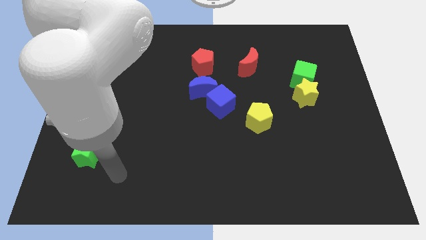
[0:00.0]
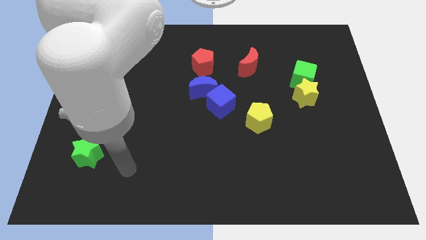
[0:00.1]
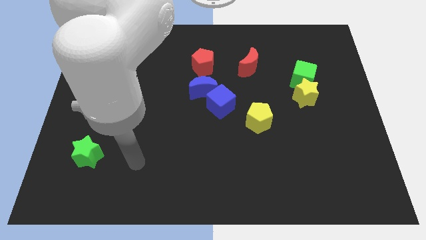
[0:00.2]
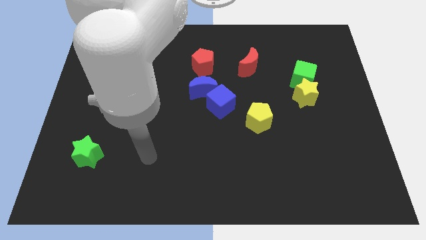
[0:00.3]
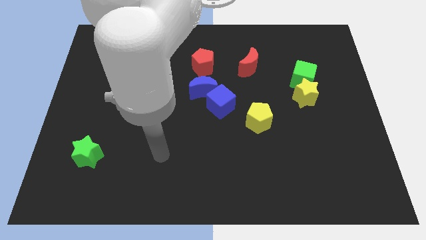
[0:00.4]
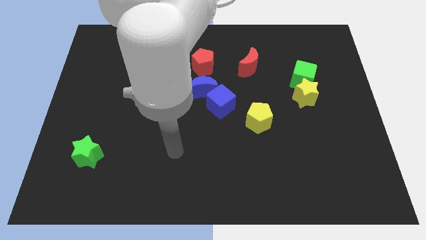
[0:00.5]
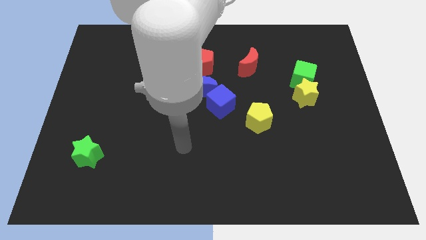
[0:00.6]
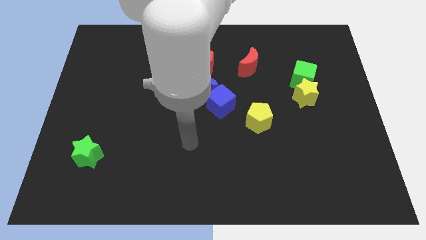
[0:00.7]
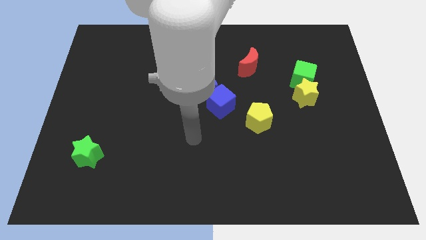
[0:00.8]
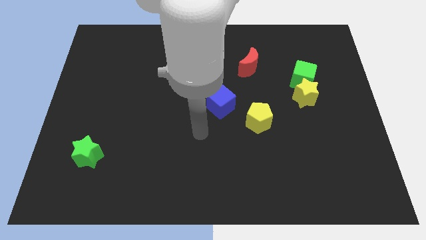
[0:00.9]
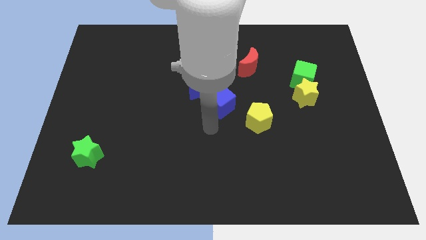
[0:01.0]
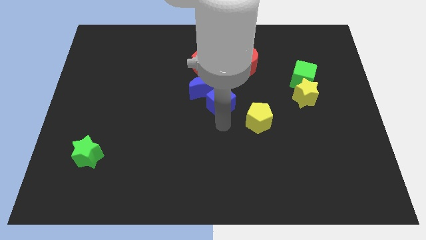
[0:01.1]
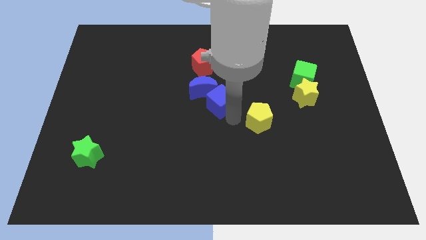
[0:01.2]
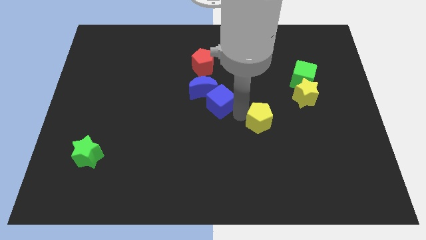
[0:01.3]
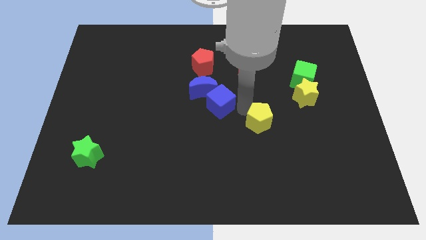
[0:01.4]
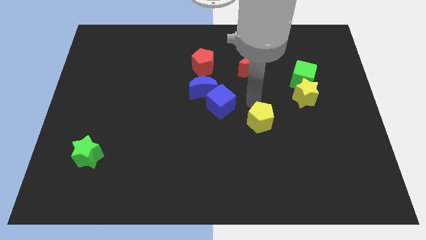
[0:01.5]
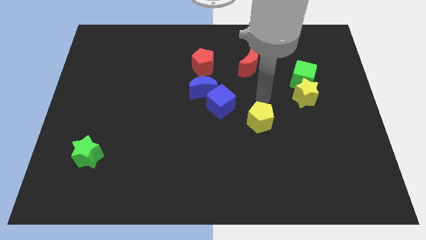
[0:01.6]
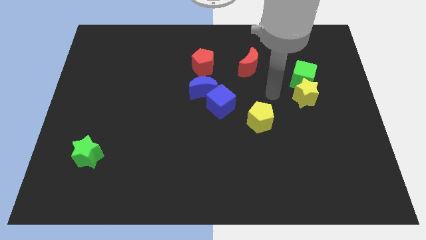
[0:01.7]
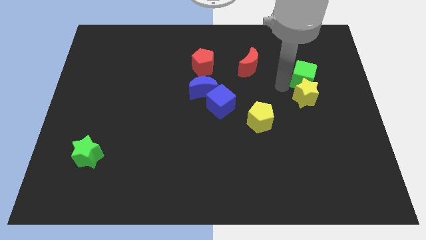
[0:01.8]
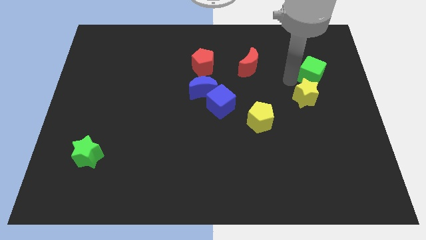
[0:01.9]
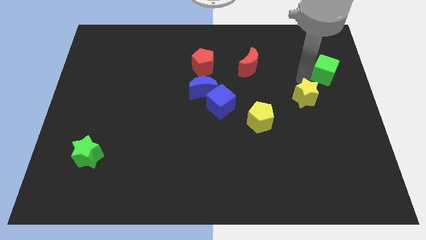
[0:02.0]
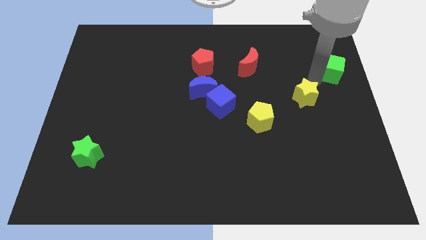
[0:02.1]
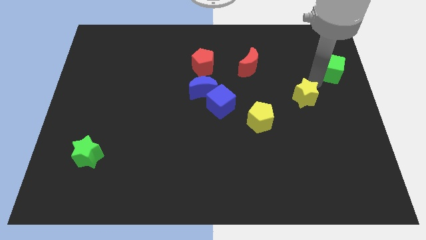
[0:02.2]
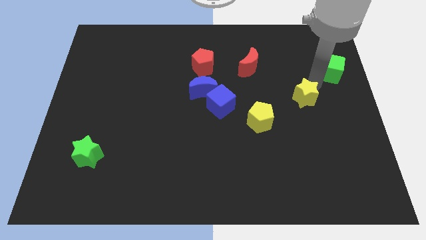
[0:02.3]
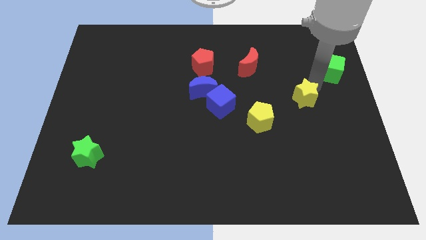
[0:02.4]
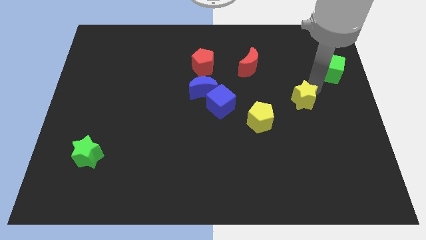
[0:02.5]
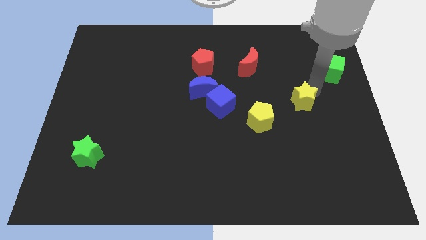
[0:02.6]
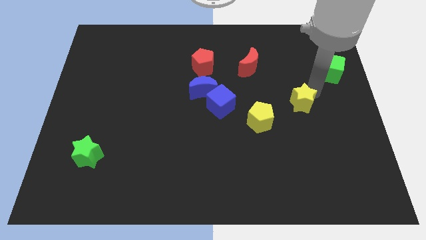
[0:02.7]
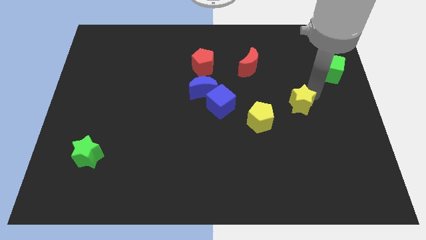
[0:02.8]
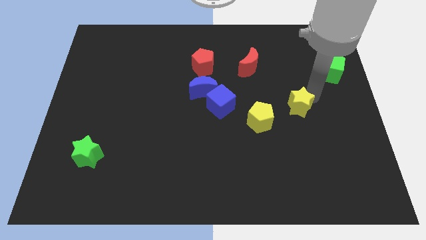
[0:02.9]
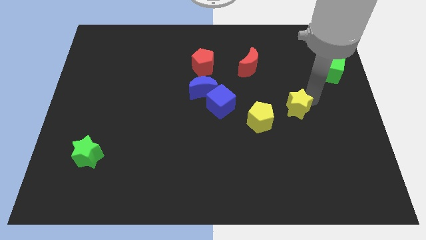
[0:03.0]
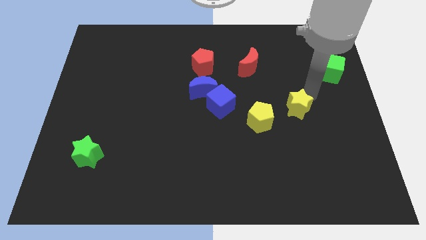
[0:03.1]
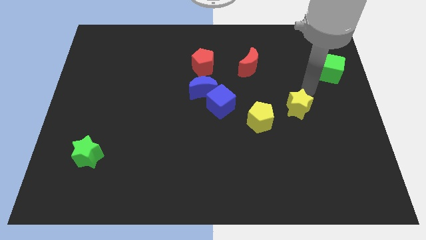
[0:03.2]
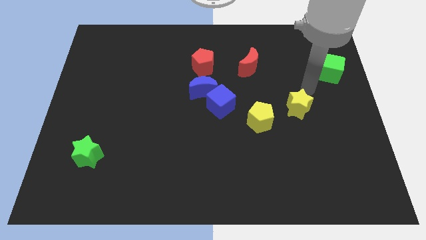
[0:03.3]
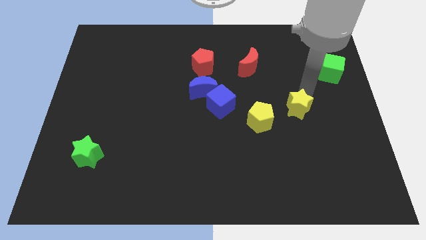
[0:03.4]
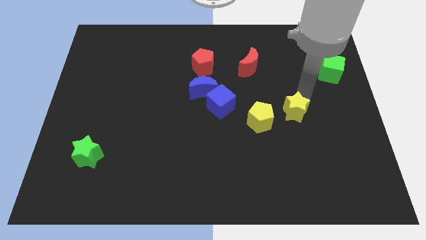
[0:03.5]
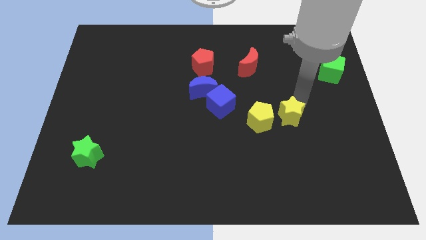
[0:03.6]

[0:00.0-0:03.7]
slide the yellow star slightly diagonally downwards and left

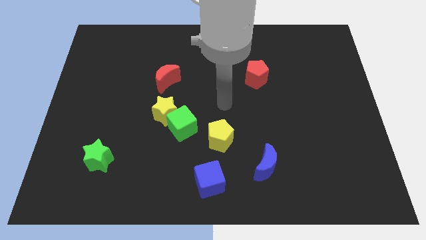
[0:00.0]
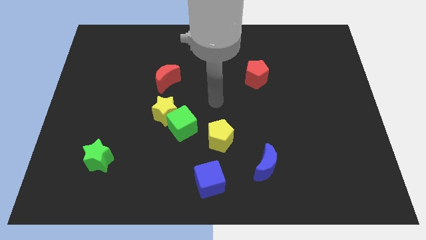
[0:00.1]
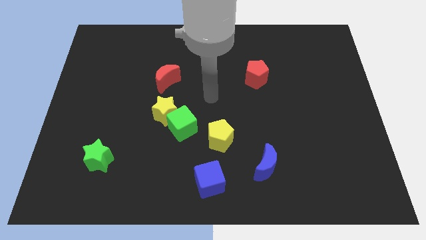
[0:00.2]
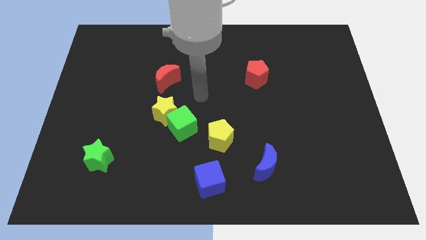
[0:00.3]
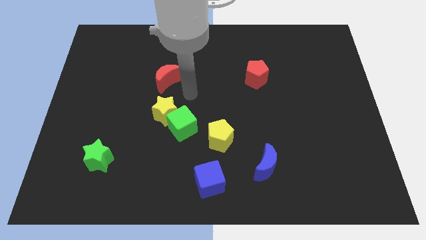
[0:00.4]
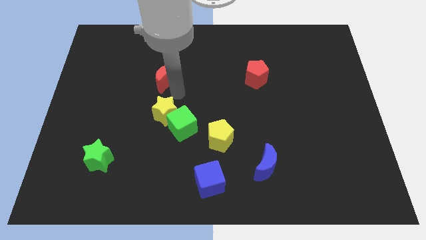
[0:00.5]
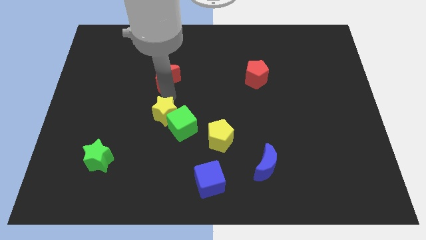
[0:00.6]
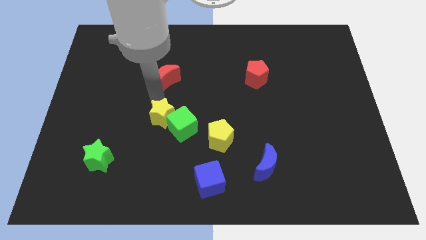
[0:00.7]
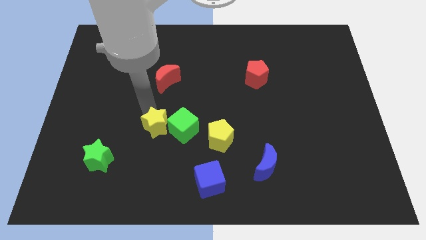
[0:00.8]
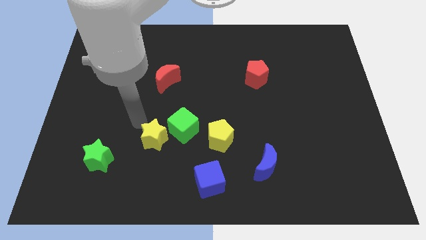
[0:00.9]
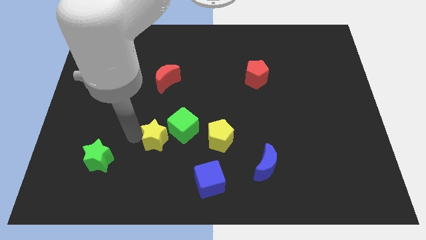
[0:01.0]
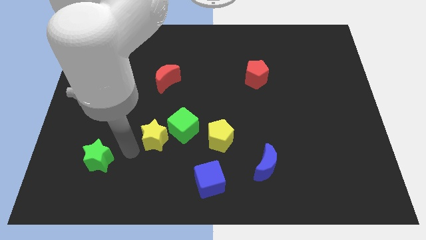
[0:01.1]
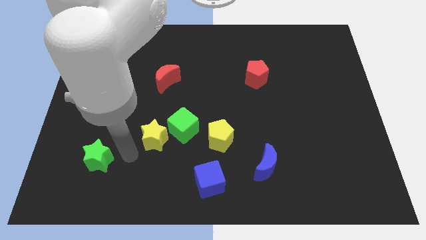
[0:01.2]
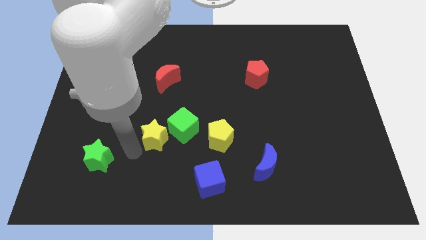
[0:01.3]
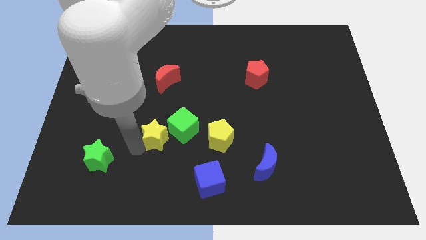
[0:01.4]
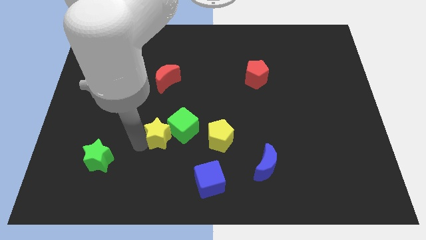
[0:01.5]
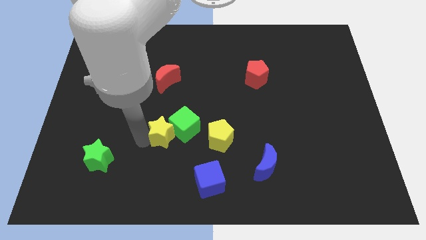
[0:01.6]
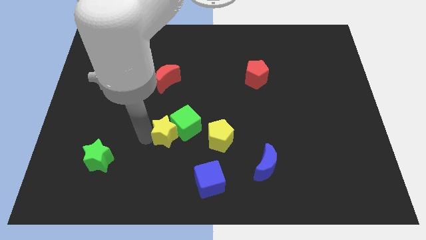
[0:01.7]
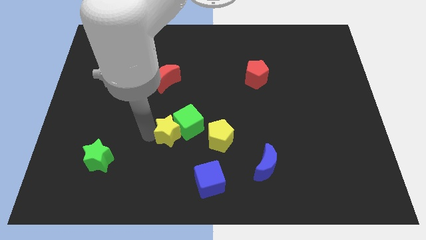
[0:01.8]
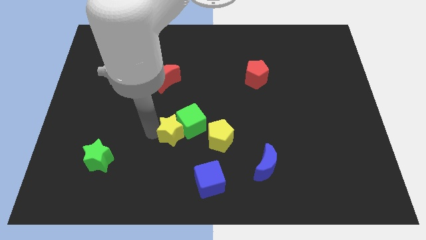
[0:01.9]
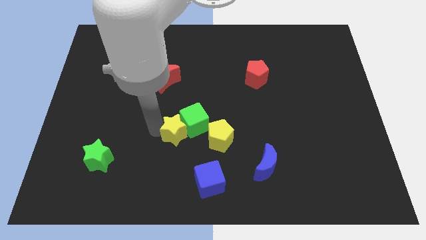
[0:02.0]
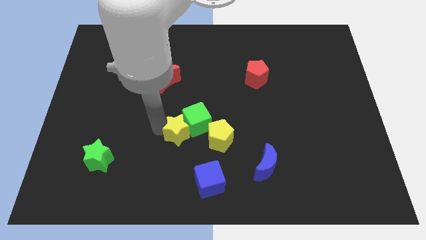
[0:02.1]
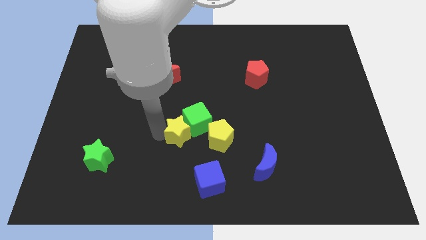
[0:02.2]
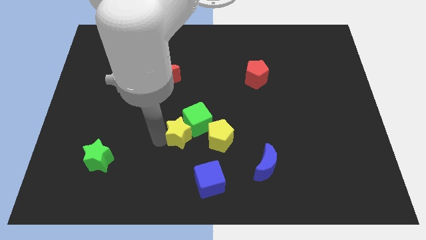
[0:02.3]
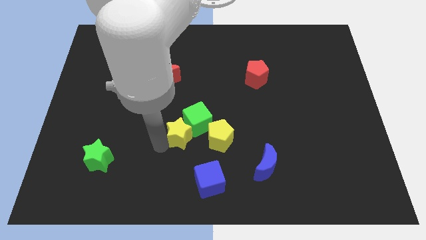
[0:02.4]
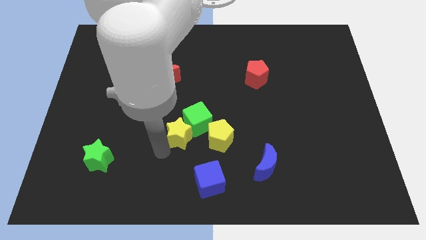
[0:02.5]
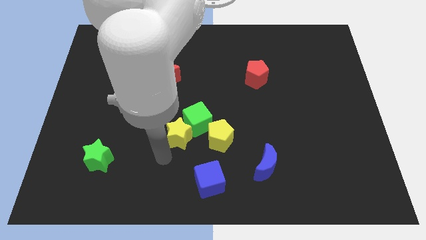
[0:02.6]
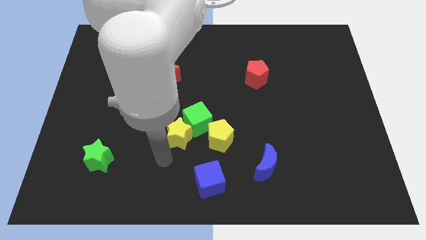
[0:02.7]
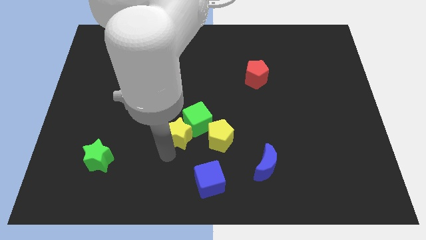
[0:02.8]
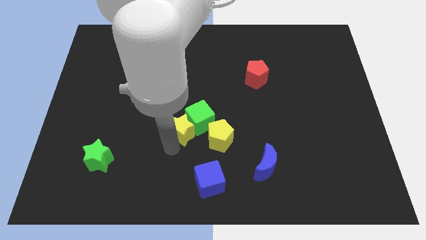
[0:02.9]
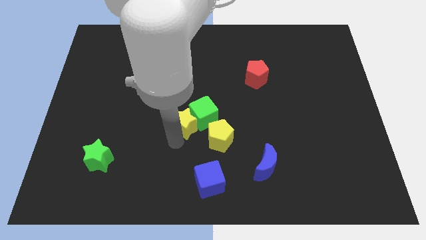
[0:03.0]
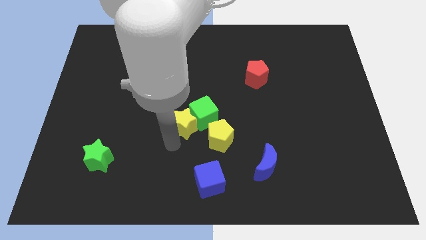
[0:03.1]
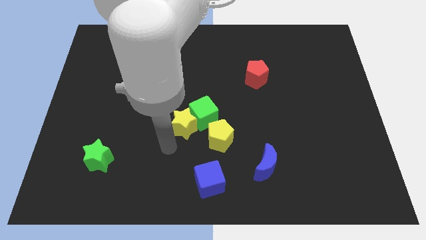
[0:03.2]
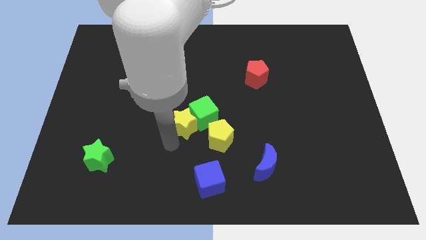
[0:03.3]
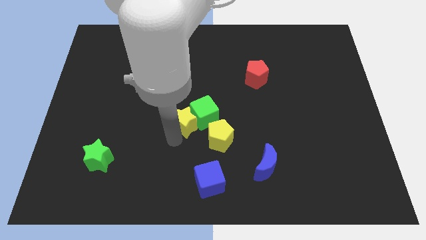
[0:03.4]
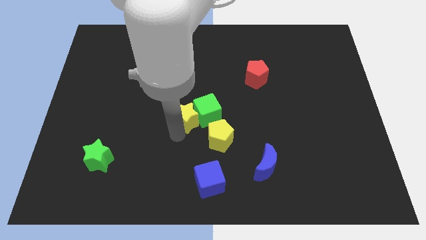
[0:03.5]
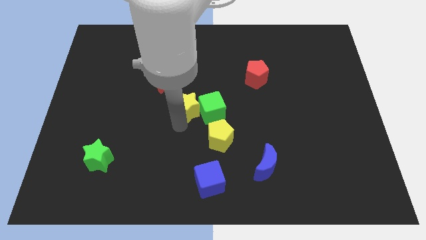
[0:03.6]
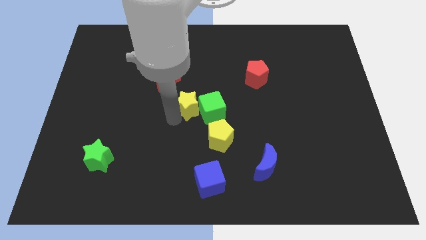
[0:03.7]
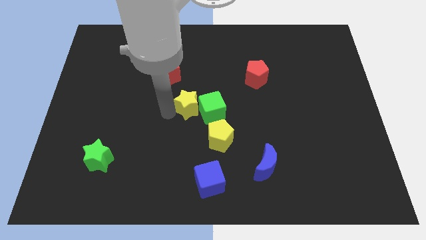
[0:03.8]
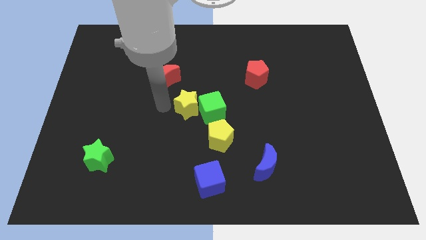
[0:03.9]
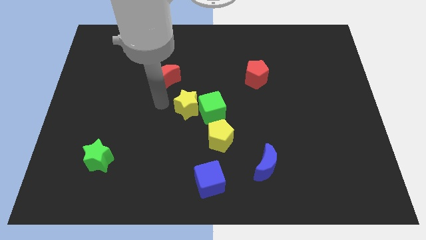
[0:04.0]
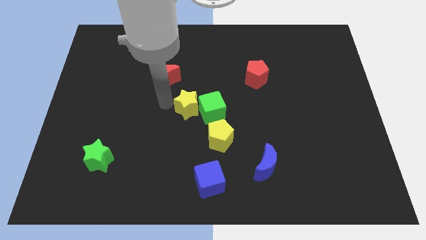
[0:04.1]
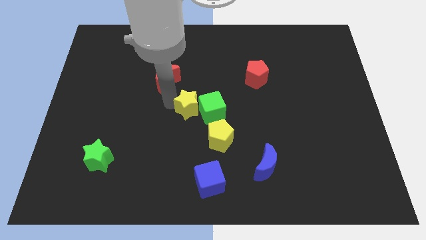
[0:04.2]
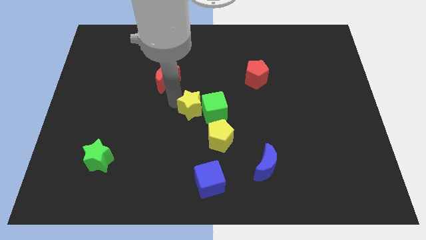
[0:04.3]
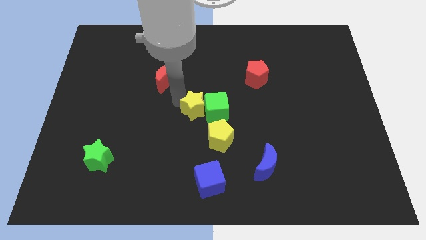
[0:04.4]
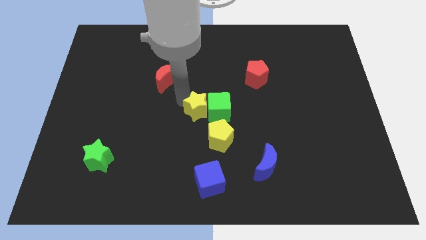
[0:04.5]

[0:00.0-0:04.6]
slightly slide the yellow star right
